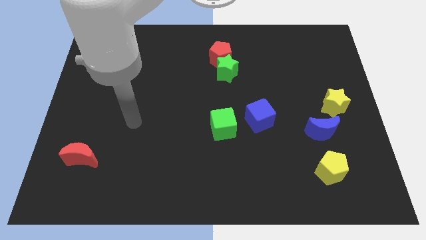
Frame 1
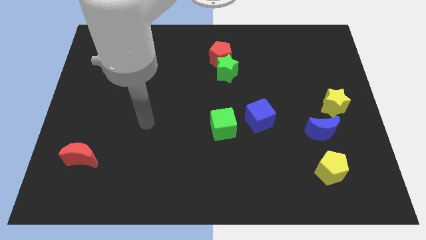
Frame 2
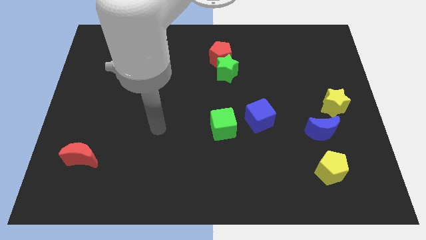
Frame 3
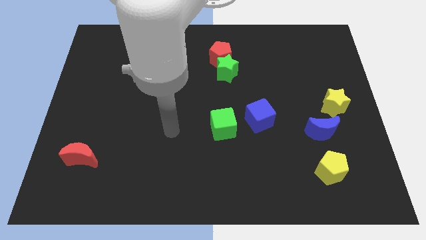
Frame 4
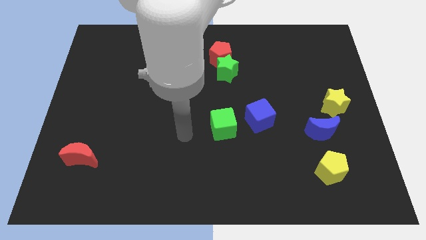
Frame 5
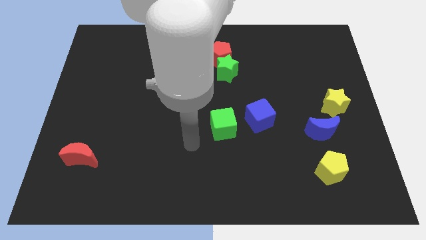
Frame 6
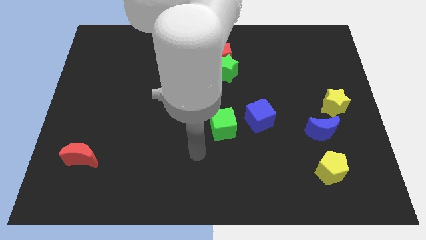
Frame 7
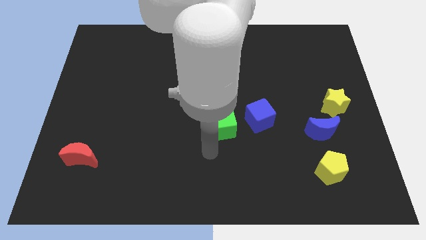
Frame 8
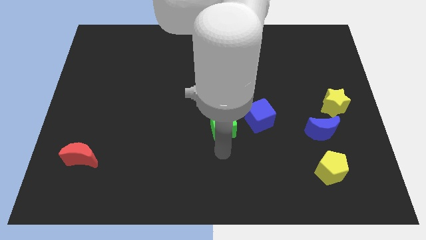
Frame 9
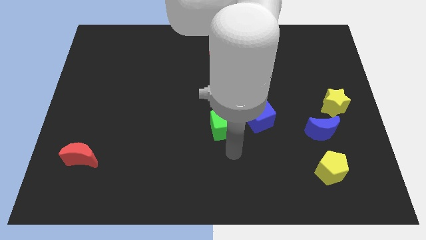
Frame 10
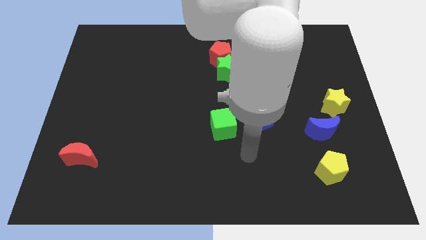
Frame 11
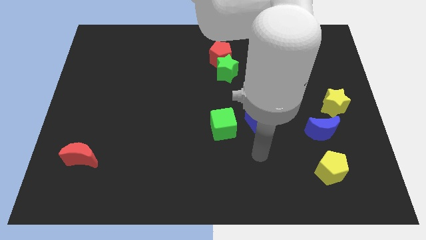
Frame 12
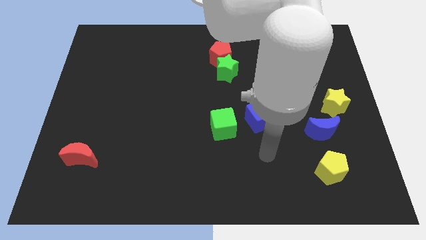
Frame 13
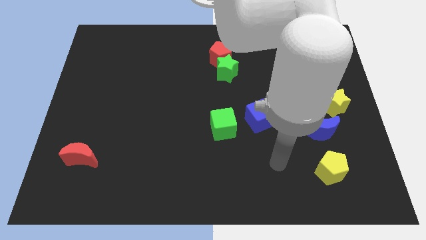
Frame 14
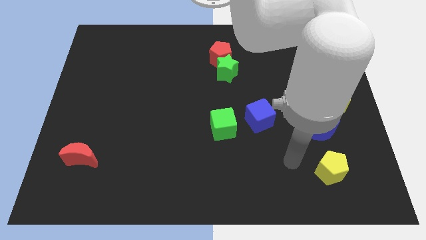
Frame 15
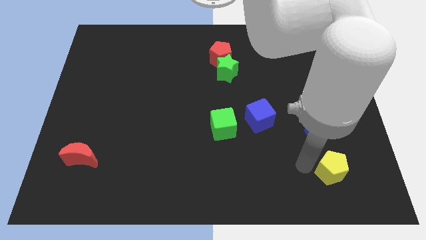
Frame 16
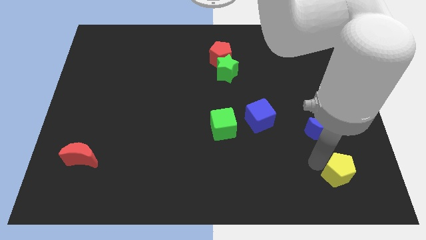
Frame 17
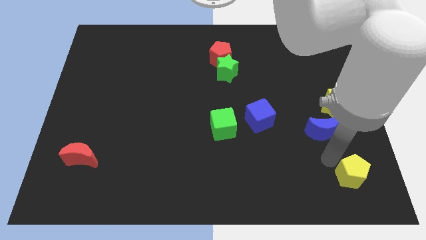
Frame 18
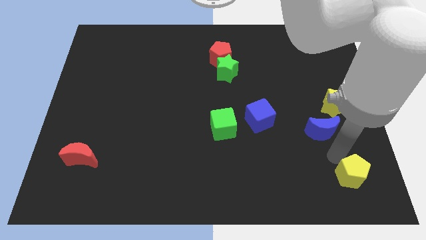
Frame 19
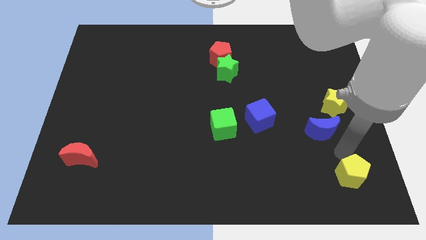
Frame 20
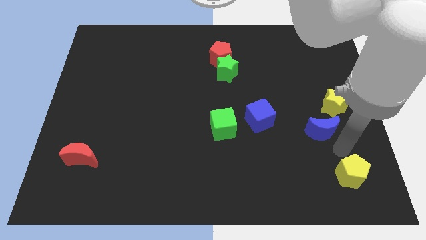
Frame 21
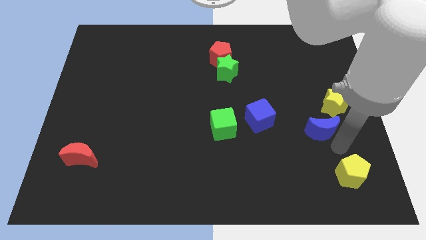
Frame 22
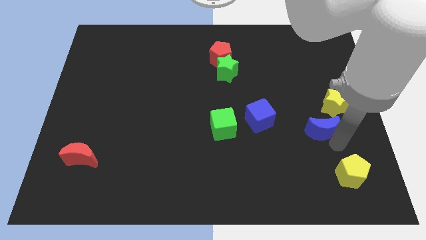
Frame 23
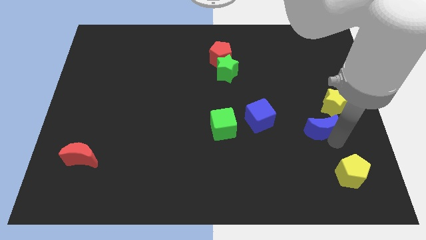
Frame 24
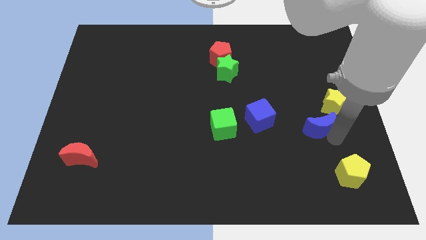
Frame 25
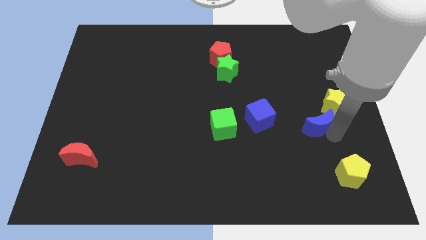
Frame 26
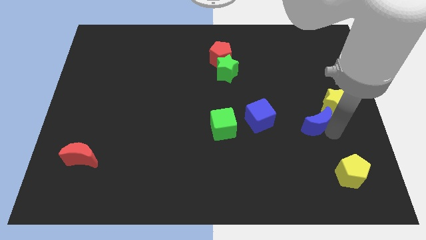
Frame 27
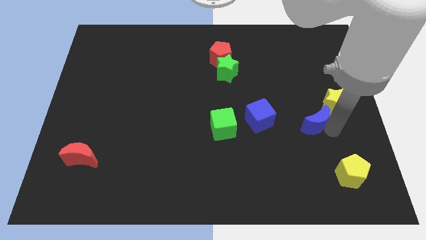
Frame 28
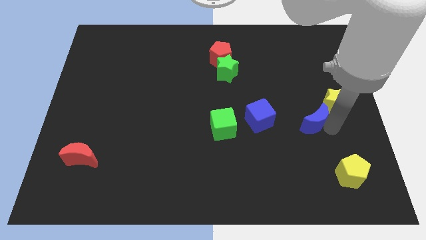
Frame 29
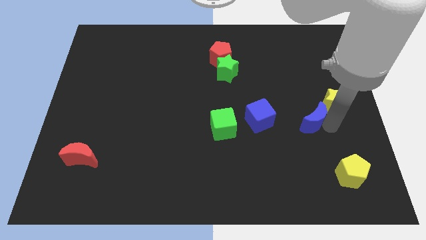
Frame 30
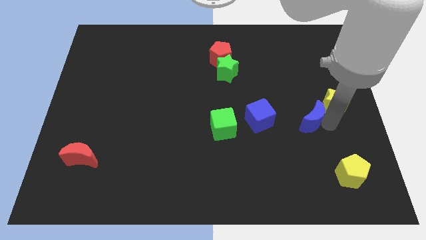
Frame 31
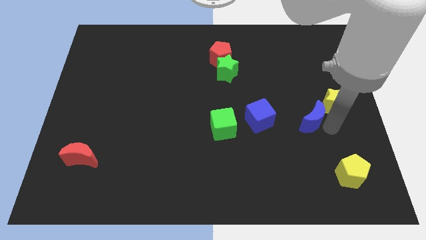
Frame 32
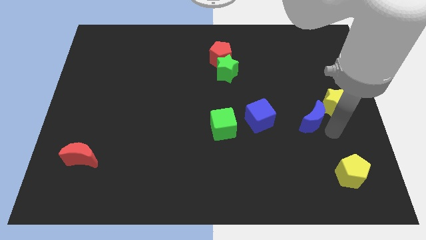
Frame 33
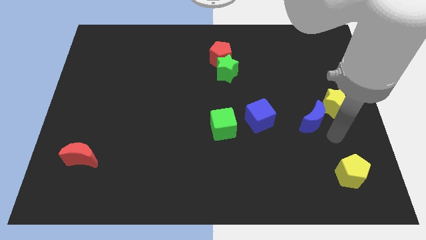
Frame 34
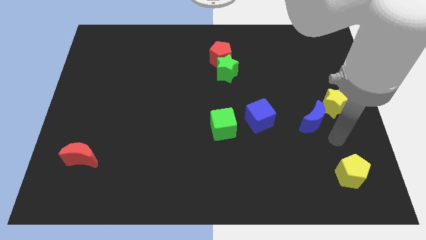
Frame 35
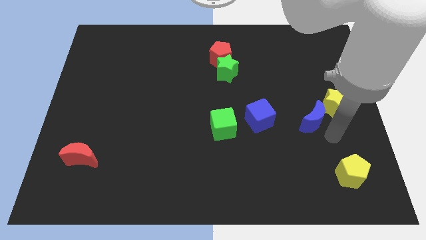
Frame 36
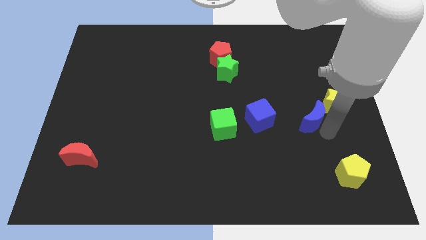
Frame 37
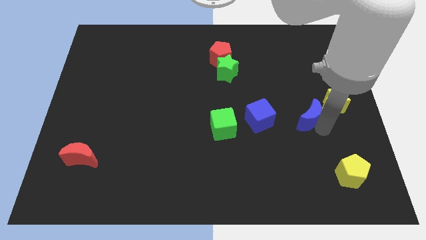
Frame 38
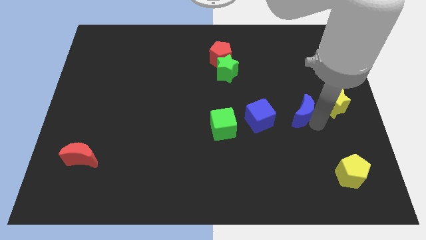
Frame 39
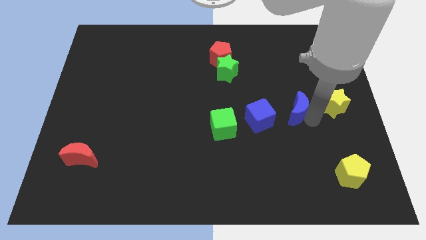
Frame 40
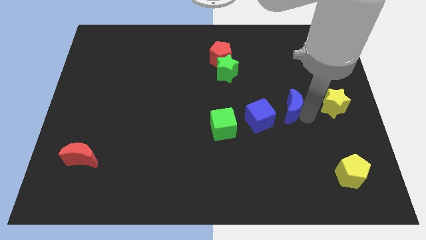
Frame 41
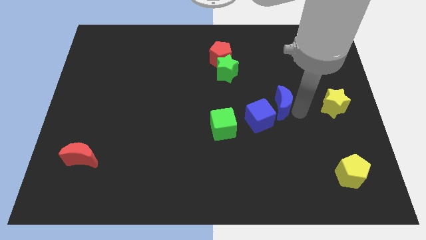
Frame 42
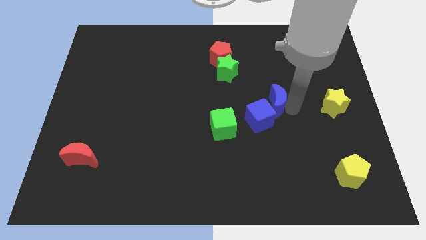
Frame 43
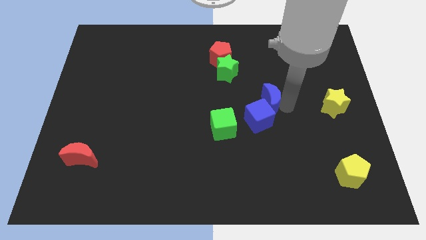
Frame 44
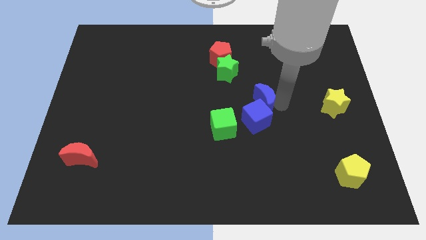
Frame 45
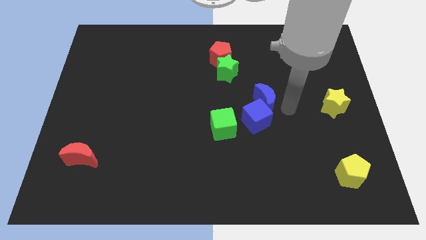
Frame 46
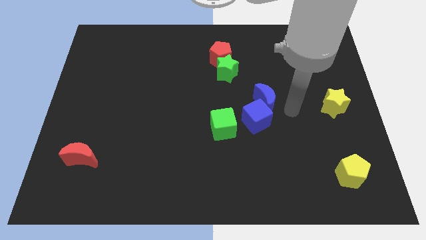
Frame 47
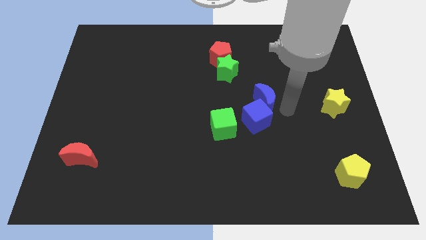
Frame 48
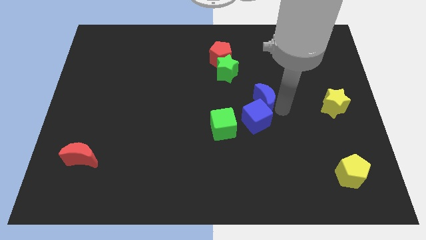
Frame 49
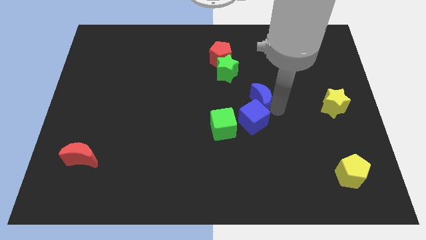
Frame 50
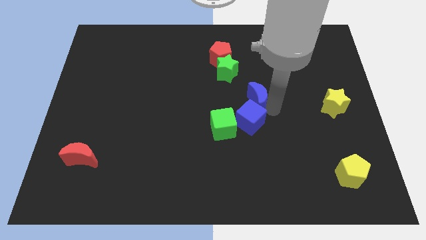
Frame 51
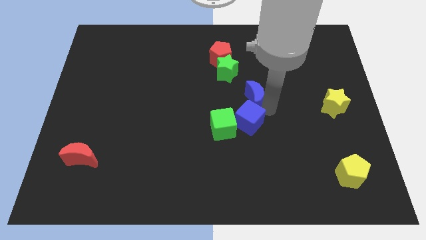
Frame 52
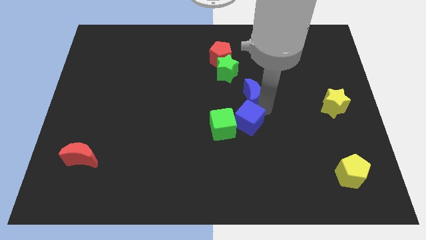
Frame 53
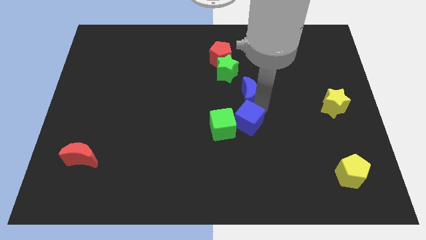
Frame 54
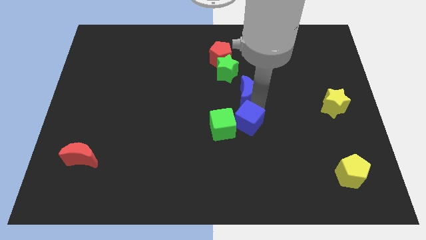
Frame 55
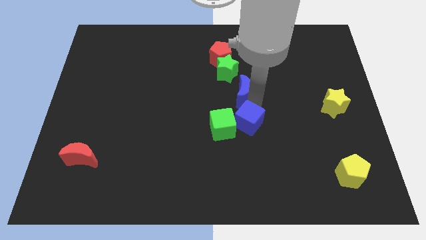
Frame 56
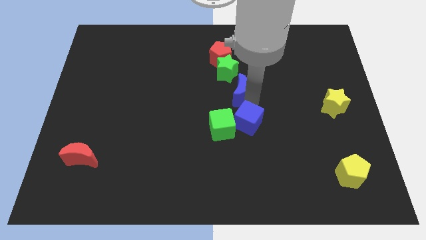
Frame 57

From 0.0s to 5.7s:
push the blue moon to the bottom of the red pentagon
